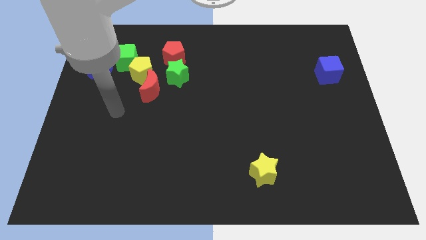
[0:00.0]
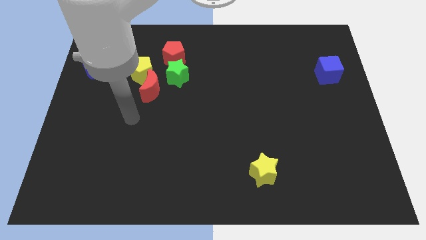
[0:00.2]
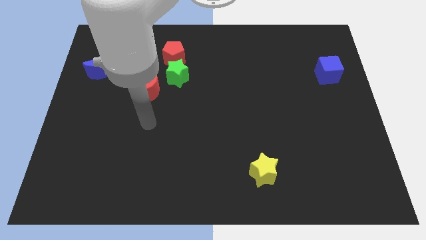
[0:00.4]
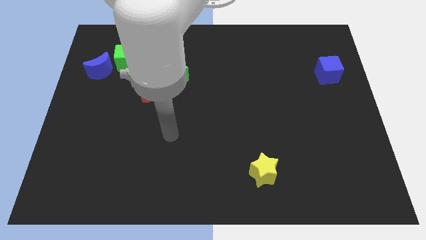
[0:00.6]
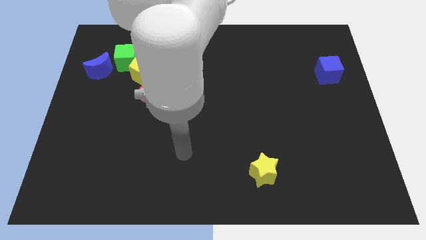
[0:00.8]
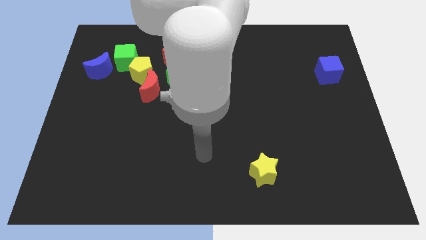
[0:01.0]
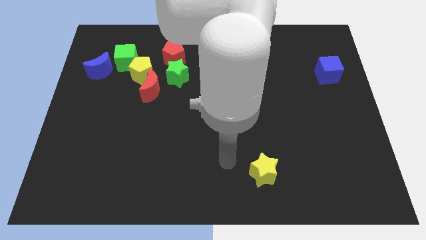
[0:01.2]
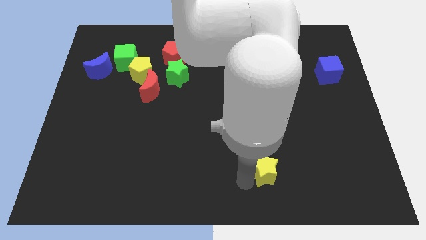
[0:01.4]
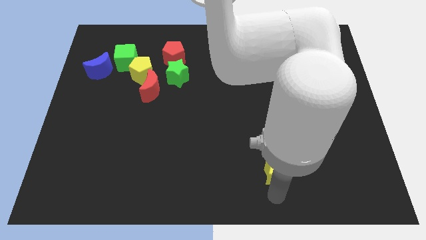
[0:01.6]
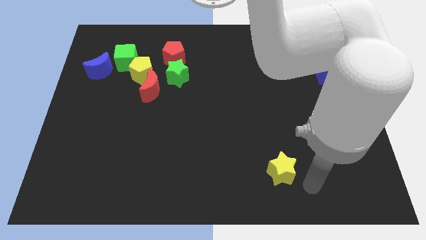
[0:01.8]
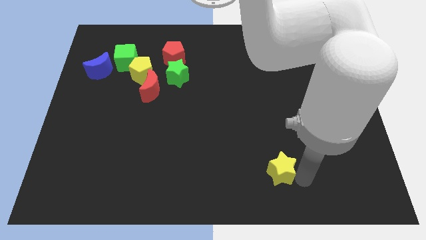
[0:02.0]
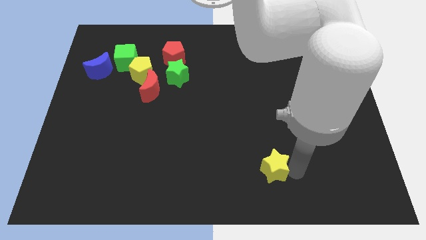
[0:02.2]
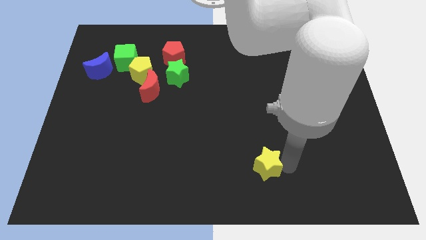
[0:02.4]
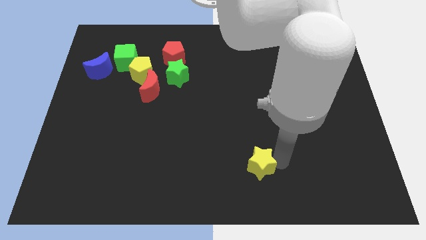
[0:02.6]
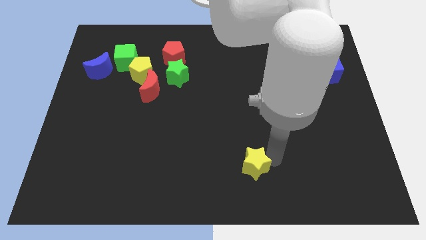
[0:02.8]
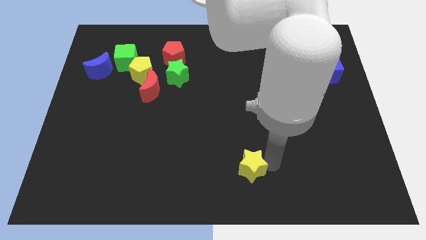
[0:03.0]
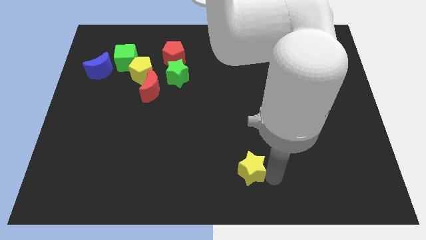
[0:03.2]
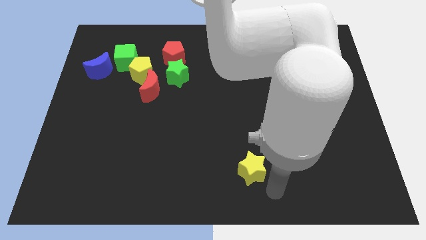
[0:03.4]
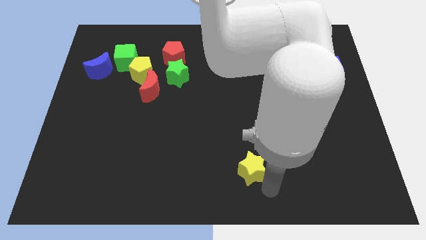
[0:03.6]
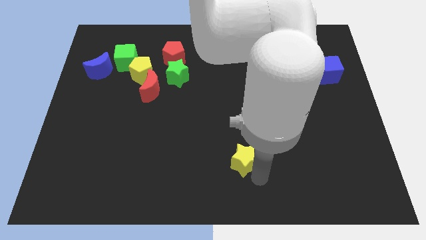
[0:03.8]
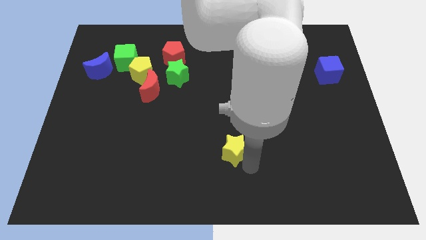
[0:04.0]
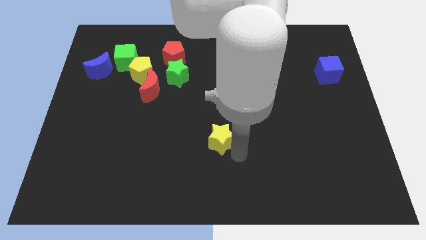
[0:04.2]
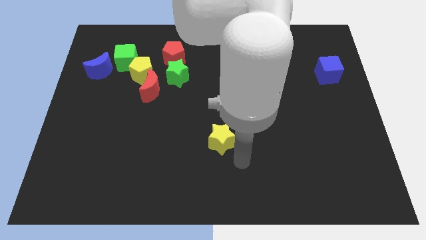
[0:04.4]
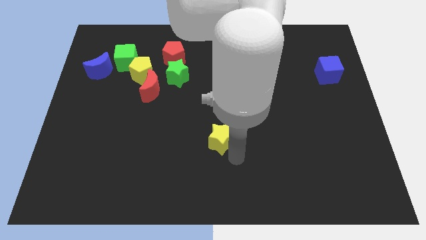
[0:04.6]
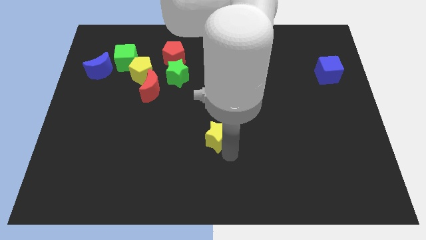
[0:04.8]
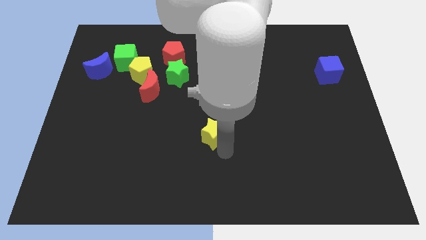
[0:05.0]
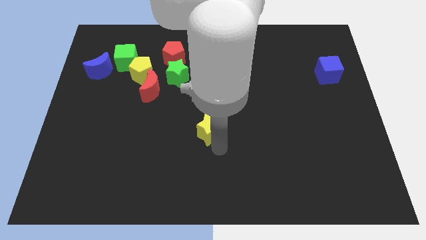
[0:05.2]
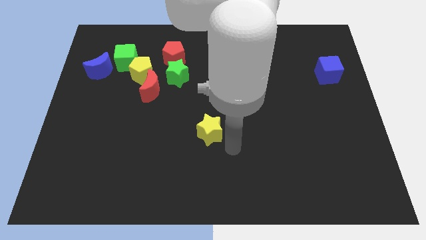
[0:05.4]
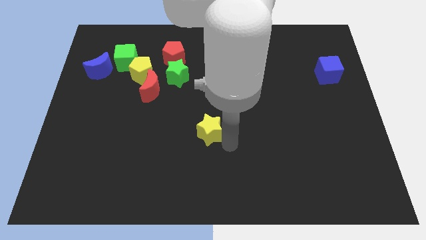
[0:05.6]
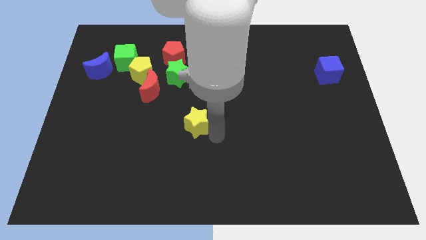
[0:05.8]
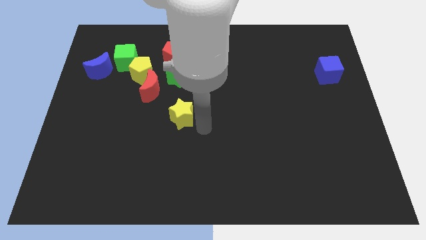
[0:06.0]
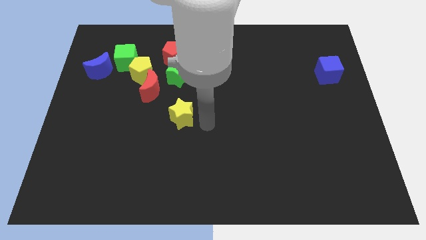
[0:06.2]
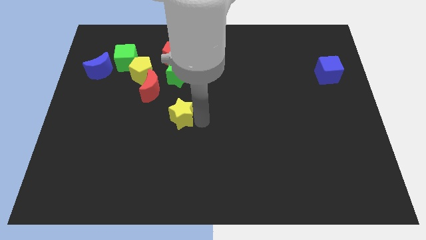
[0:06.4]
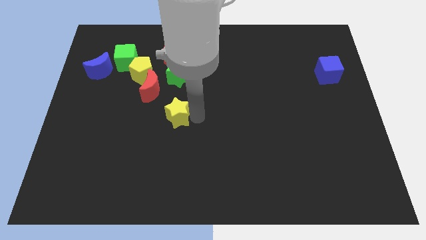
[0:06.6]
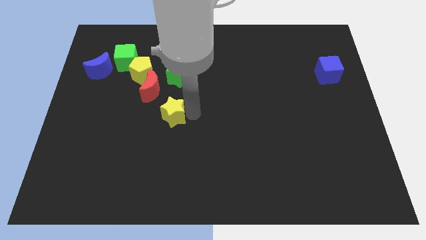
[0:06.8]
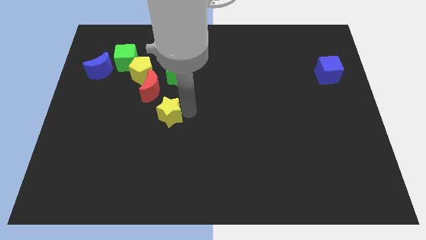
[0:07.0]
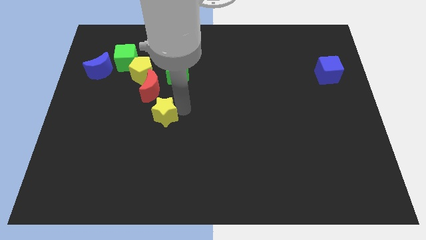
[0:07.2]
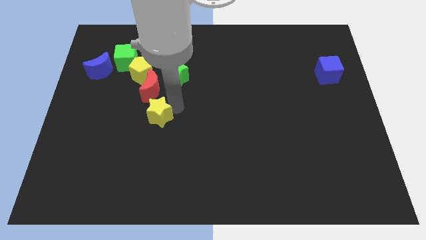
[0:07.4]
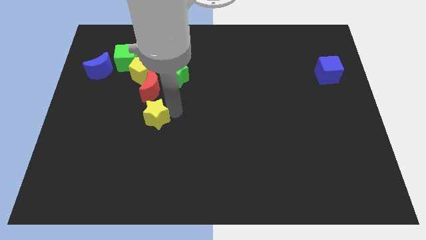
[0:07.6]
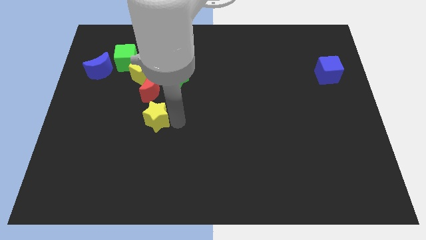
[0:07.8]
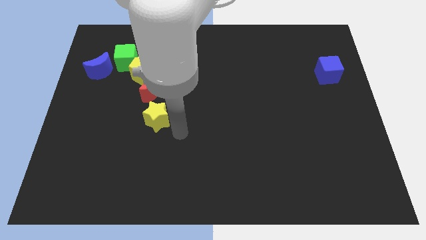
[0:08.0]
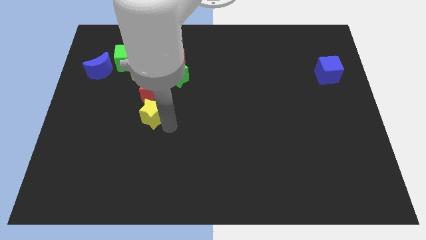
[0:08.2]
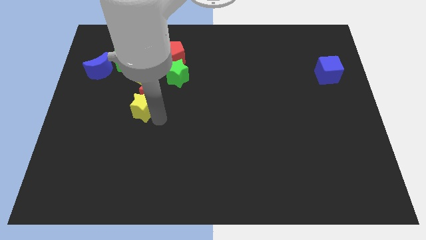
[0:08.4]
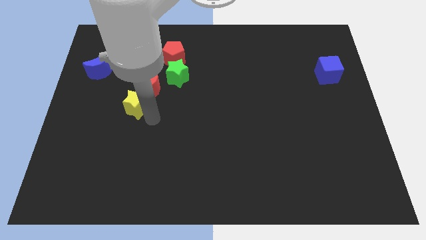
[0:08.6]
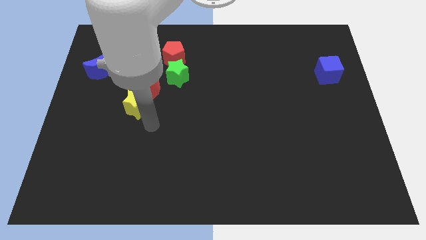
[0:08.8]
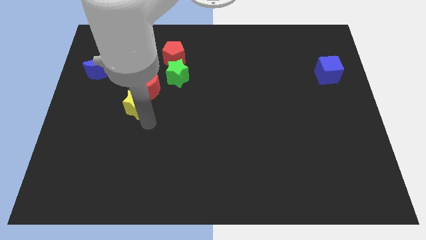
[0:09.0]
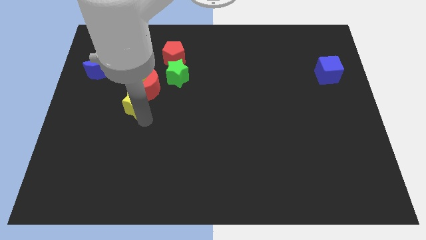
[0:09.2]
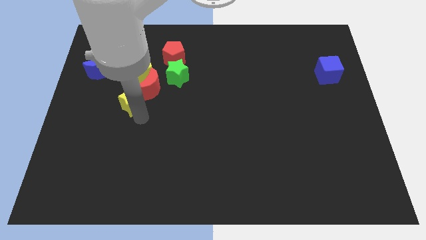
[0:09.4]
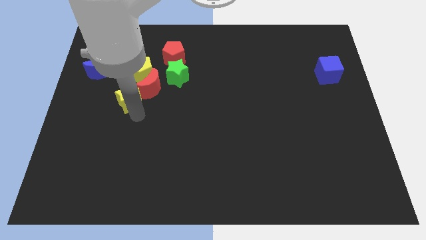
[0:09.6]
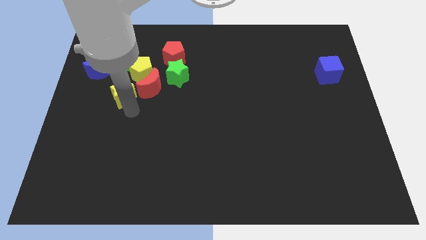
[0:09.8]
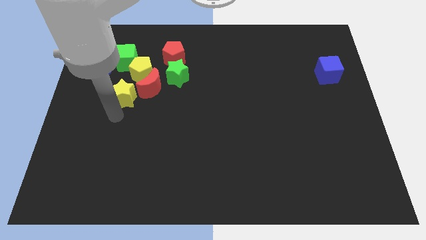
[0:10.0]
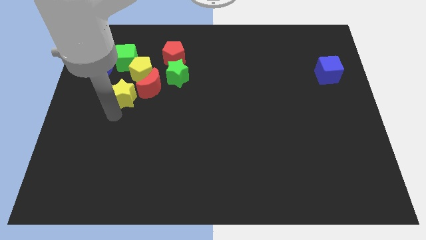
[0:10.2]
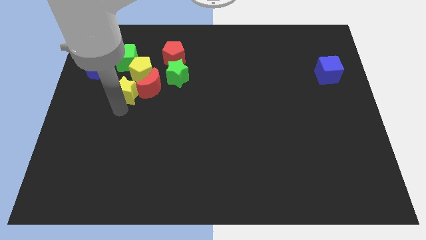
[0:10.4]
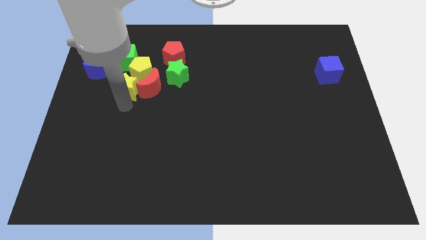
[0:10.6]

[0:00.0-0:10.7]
slide the yellow star close to the yellow pentagon

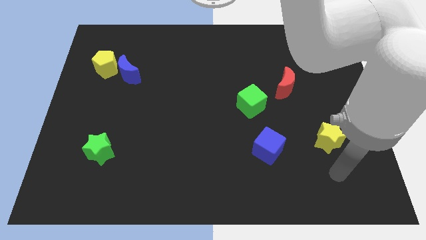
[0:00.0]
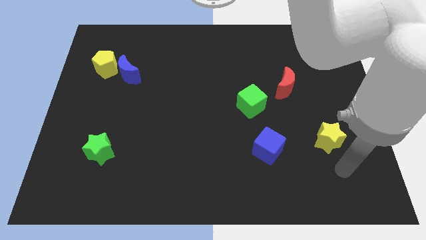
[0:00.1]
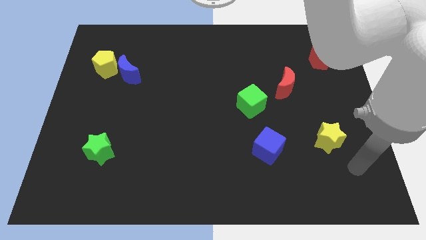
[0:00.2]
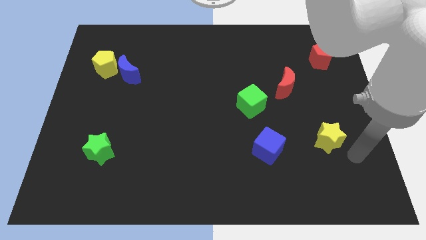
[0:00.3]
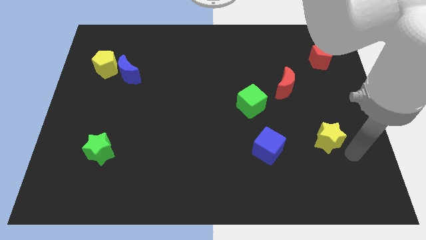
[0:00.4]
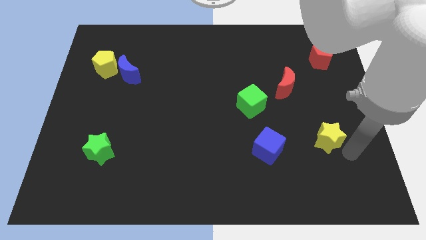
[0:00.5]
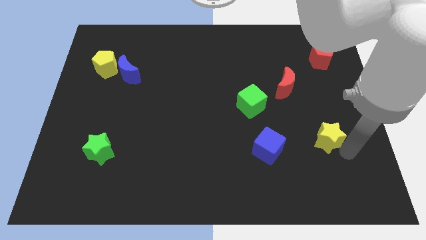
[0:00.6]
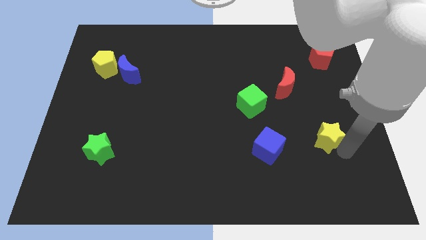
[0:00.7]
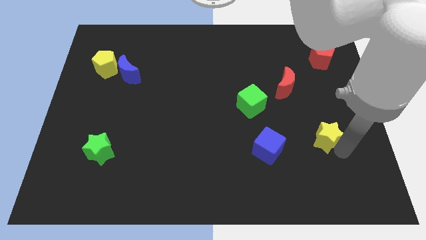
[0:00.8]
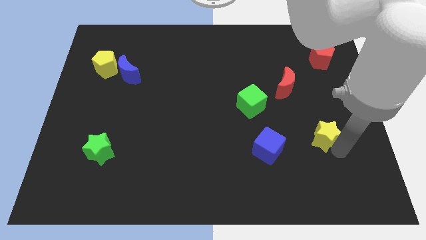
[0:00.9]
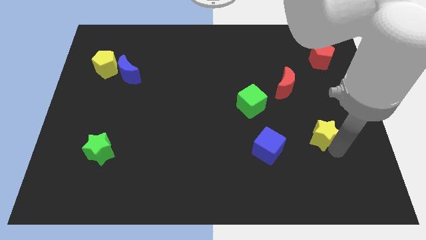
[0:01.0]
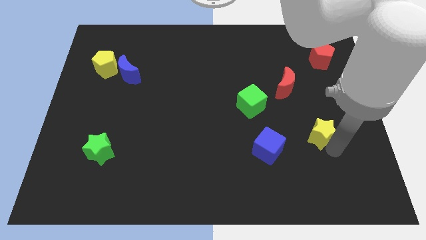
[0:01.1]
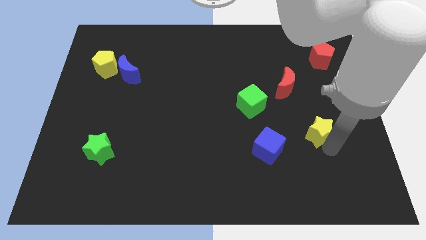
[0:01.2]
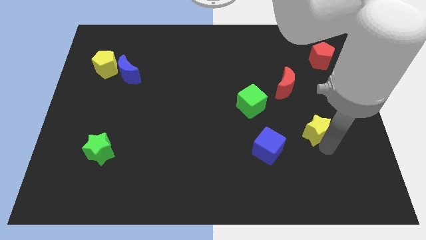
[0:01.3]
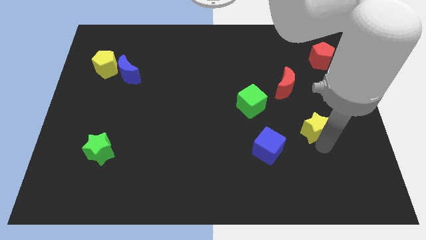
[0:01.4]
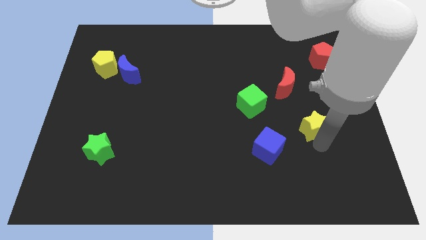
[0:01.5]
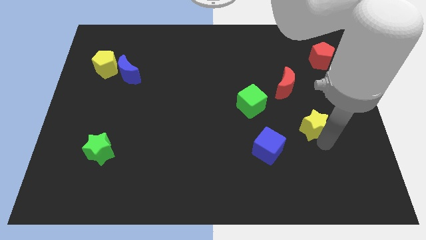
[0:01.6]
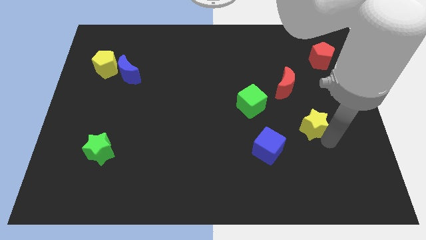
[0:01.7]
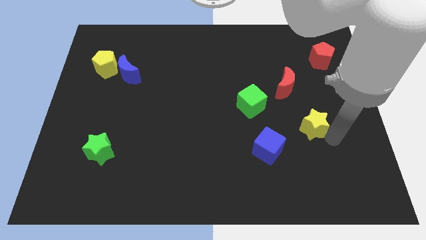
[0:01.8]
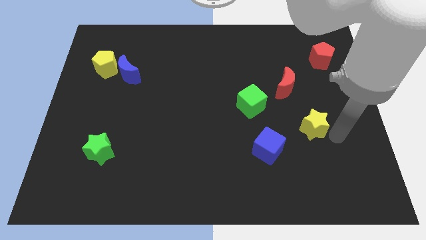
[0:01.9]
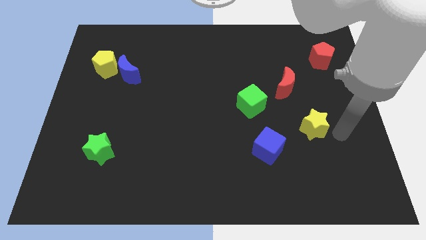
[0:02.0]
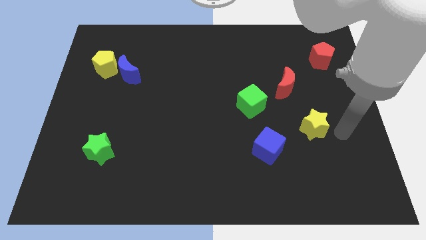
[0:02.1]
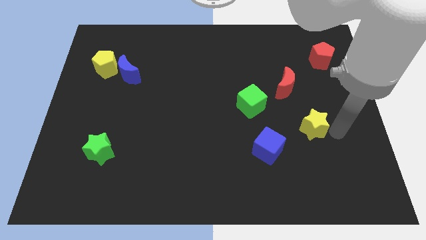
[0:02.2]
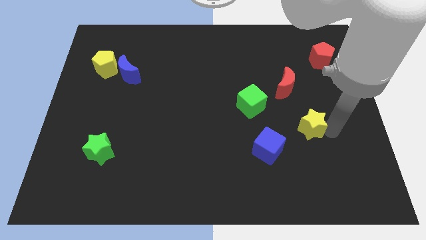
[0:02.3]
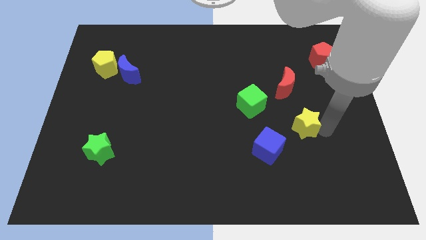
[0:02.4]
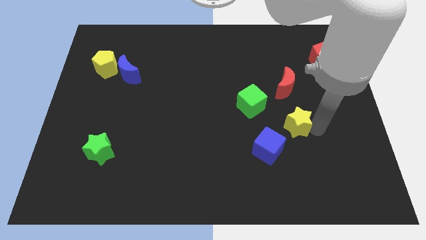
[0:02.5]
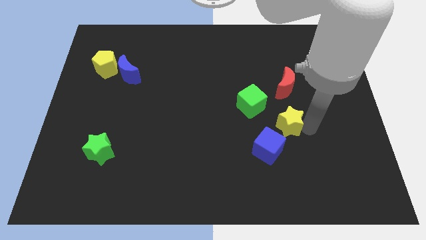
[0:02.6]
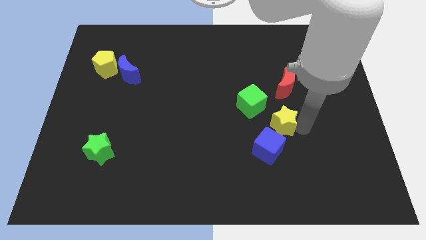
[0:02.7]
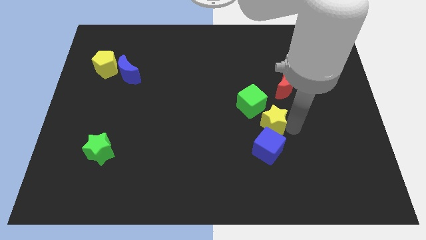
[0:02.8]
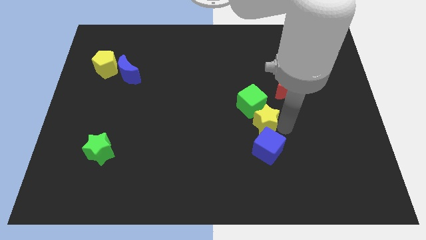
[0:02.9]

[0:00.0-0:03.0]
push the yellow star towards the green cube
